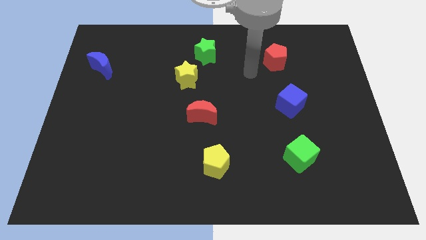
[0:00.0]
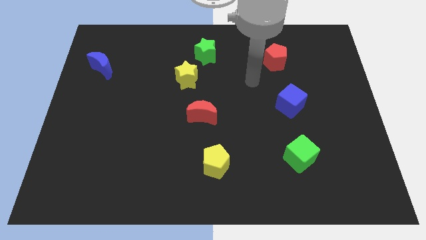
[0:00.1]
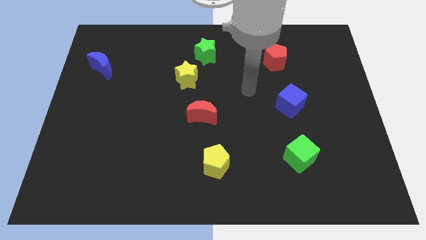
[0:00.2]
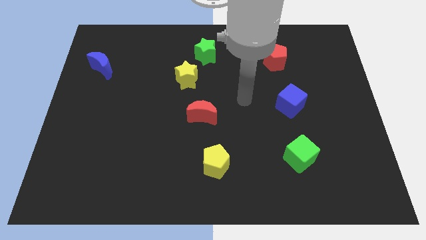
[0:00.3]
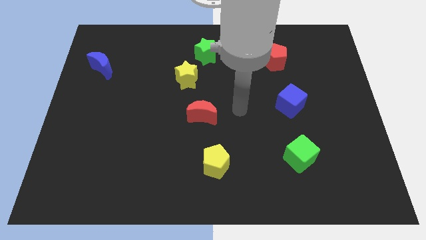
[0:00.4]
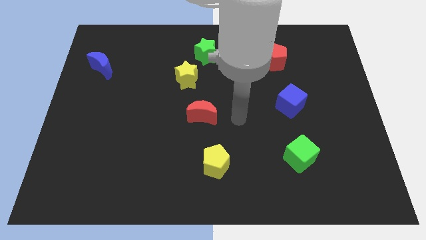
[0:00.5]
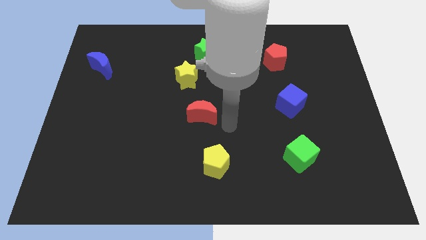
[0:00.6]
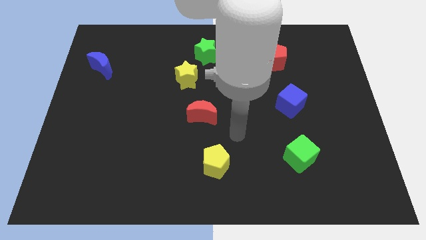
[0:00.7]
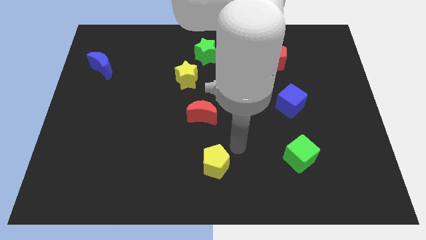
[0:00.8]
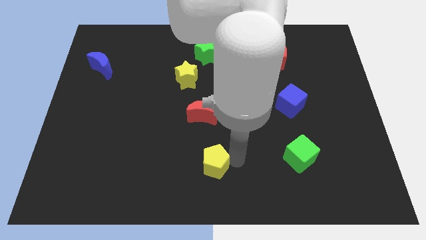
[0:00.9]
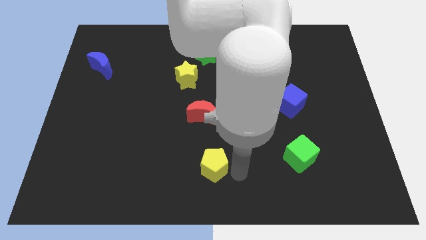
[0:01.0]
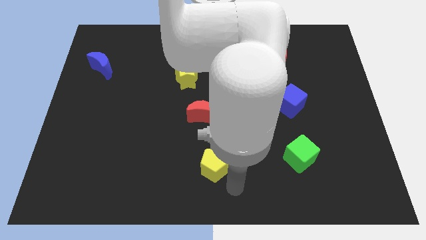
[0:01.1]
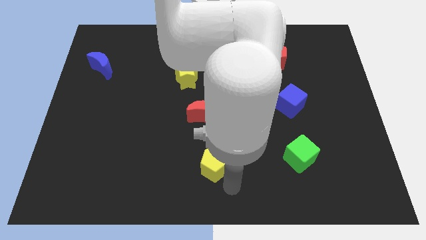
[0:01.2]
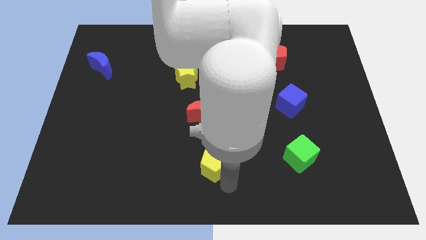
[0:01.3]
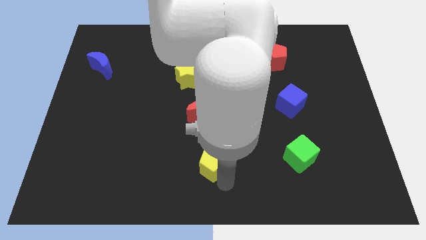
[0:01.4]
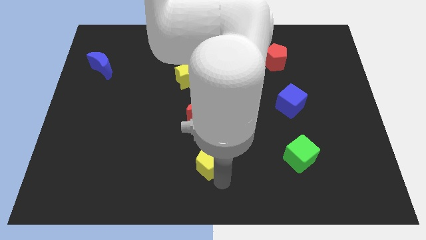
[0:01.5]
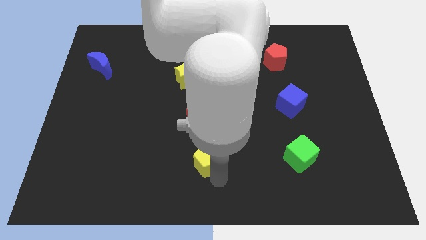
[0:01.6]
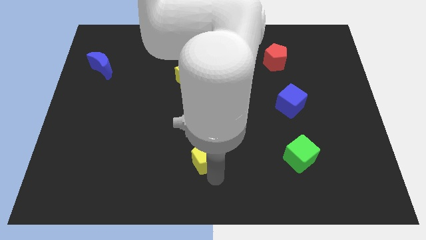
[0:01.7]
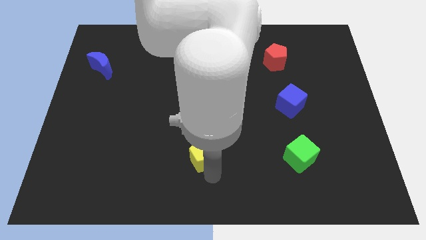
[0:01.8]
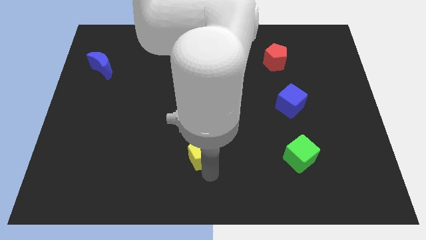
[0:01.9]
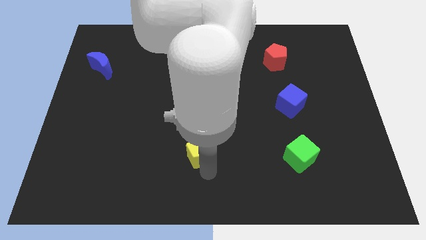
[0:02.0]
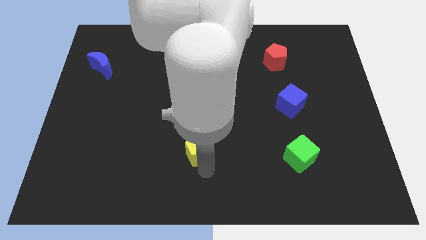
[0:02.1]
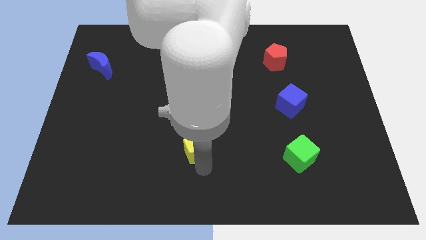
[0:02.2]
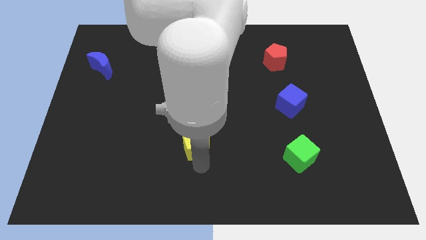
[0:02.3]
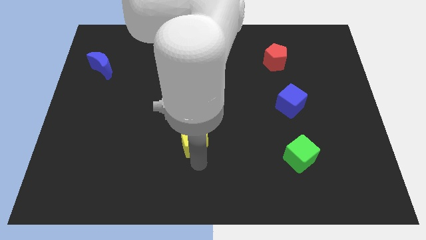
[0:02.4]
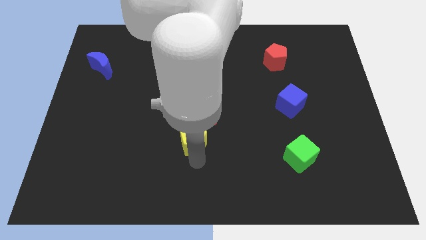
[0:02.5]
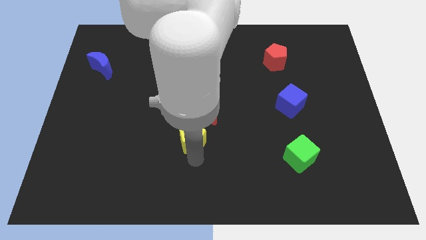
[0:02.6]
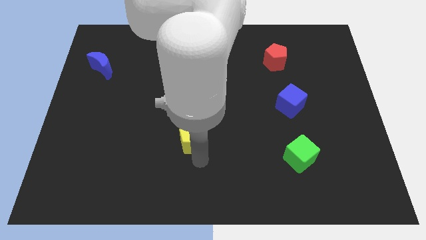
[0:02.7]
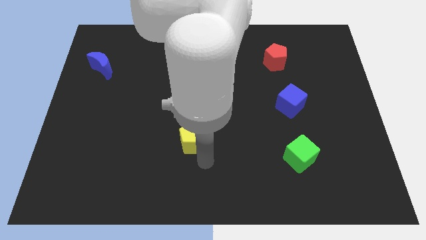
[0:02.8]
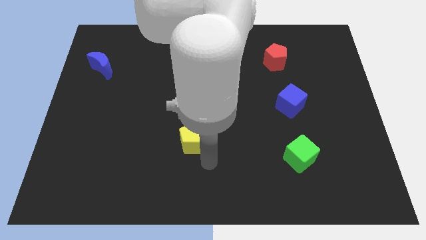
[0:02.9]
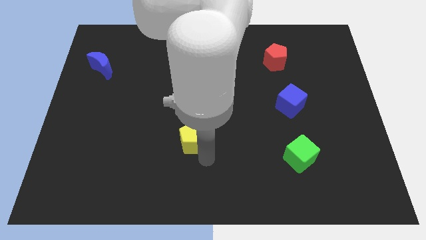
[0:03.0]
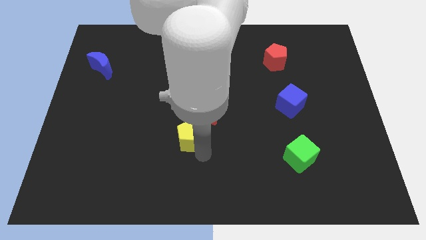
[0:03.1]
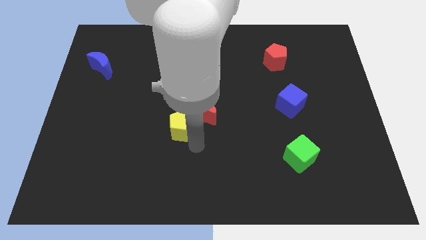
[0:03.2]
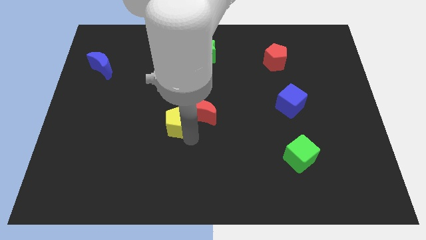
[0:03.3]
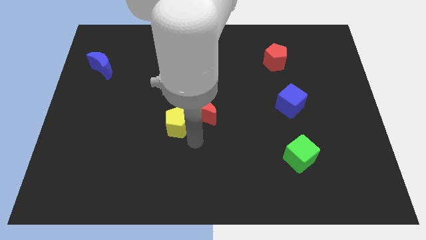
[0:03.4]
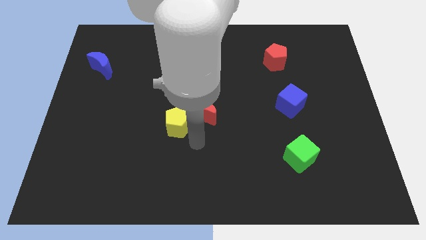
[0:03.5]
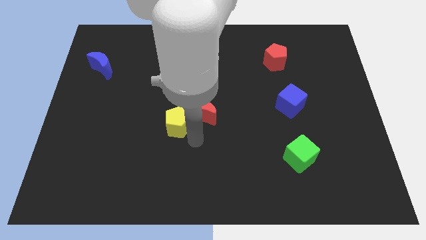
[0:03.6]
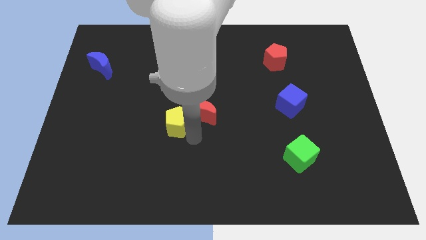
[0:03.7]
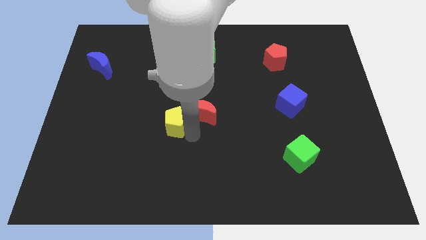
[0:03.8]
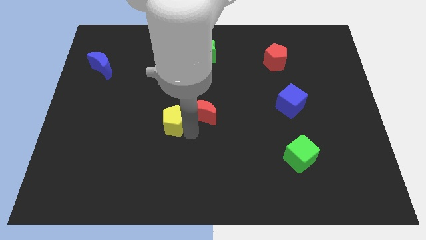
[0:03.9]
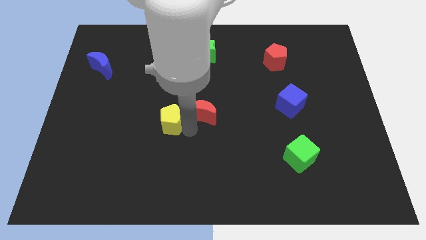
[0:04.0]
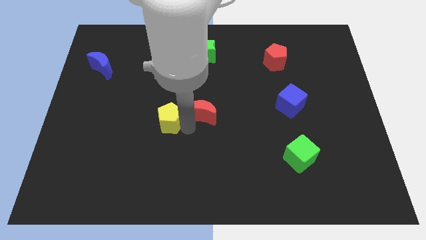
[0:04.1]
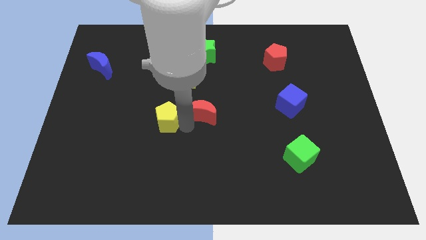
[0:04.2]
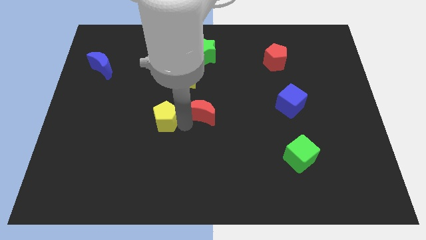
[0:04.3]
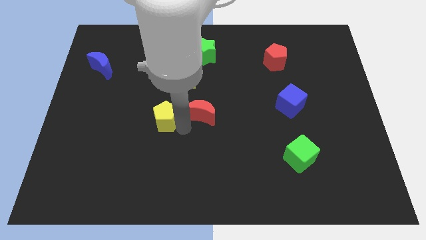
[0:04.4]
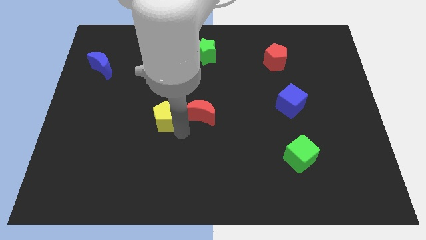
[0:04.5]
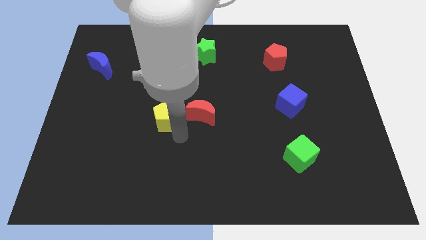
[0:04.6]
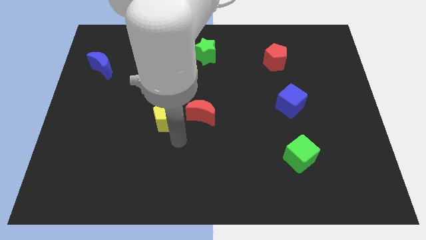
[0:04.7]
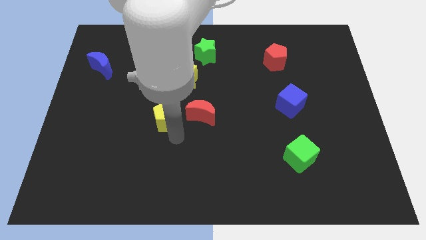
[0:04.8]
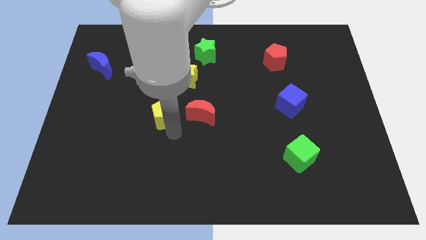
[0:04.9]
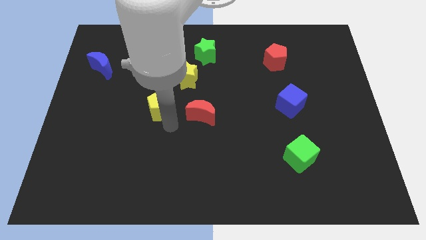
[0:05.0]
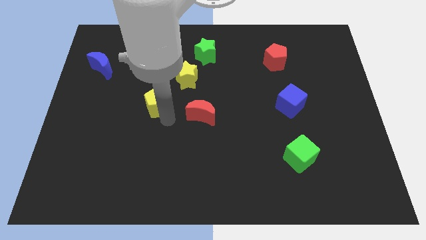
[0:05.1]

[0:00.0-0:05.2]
push the yellow pentagon up and then left

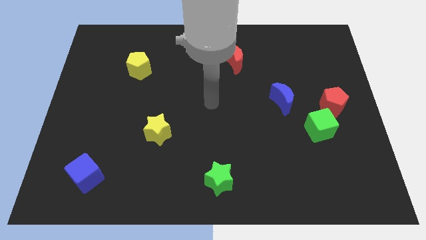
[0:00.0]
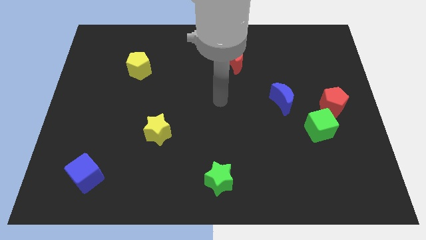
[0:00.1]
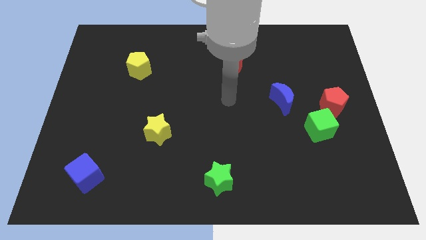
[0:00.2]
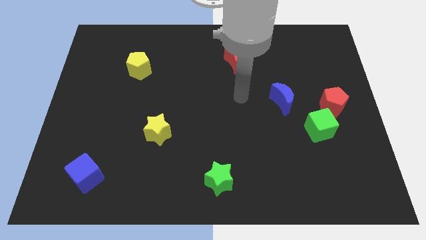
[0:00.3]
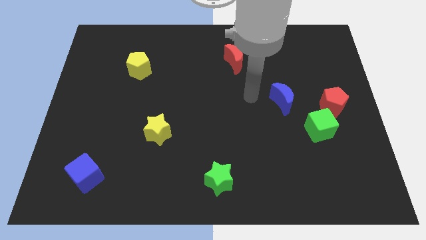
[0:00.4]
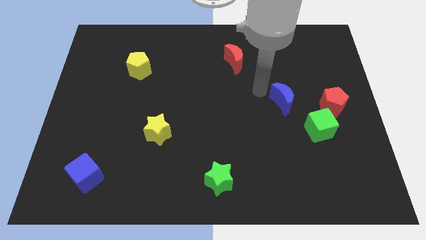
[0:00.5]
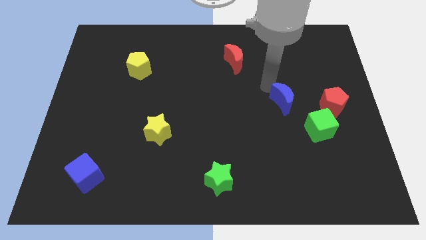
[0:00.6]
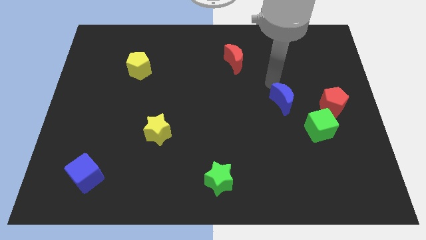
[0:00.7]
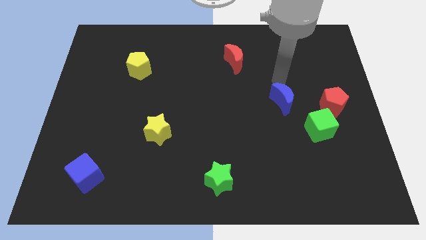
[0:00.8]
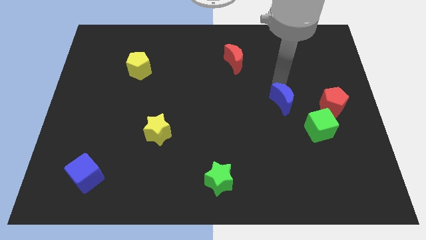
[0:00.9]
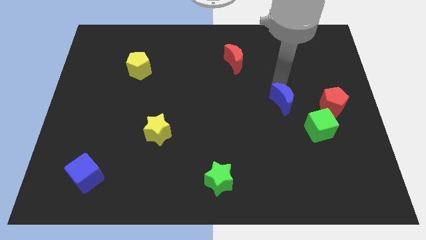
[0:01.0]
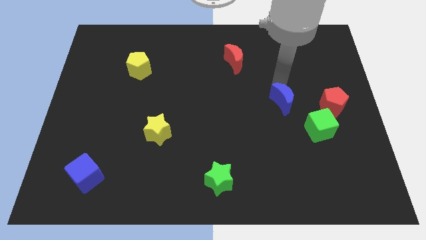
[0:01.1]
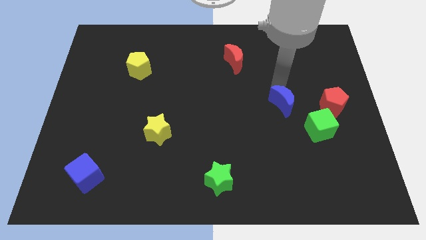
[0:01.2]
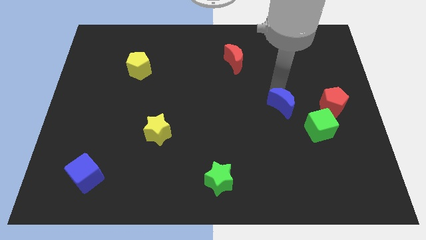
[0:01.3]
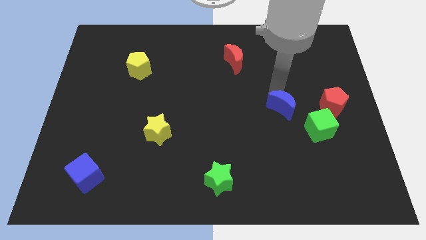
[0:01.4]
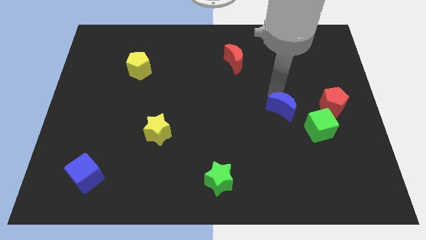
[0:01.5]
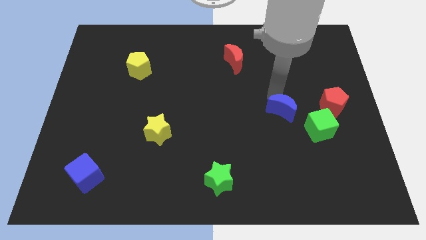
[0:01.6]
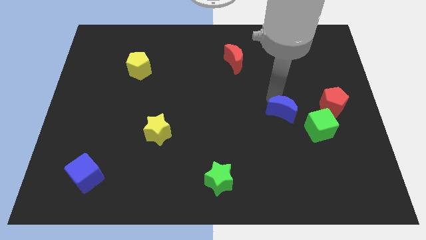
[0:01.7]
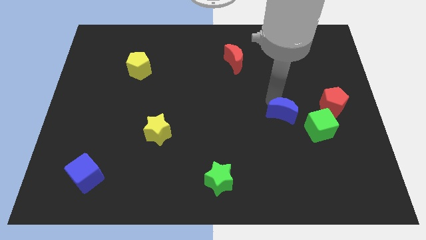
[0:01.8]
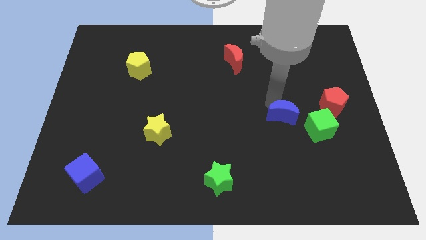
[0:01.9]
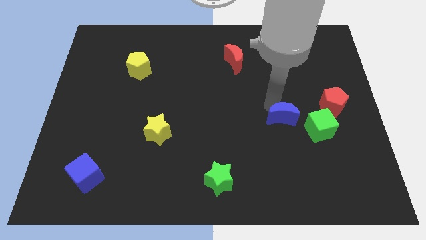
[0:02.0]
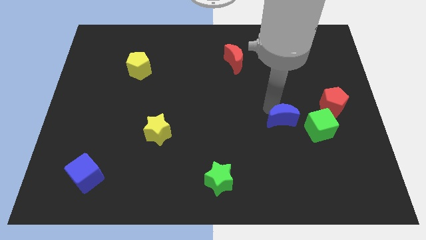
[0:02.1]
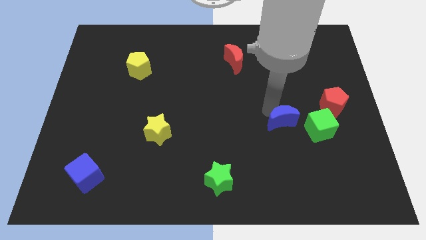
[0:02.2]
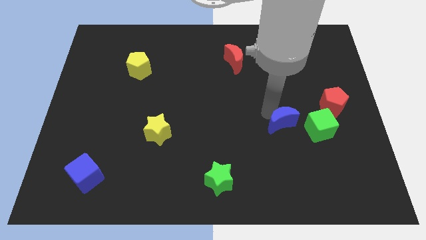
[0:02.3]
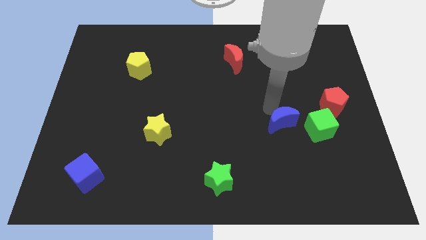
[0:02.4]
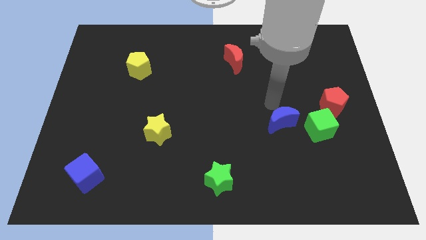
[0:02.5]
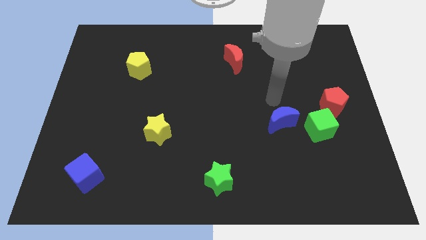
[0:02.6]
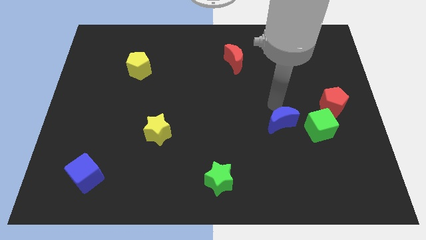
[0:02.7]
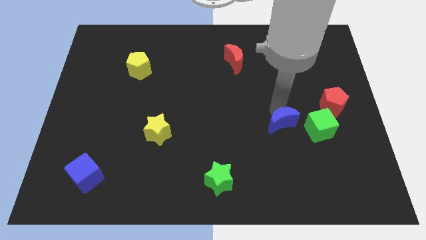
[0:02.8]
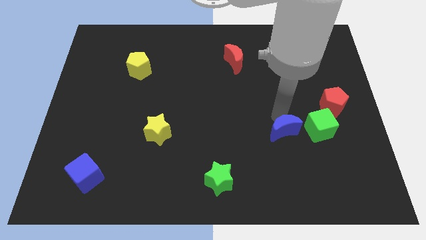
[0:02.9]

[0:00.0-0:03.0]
move the blue moon downwards somewhat

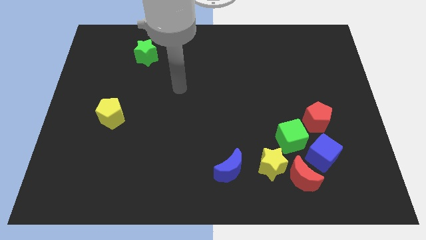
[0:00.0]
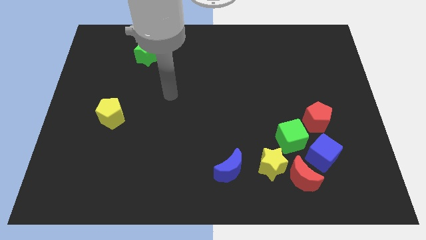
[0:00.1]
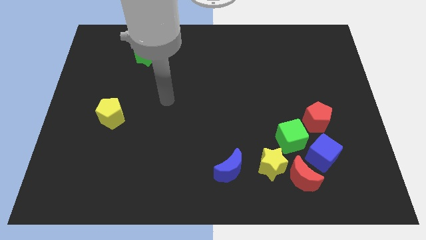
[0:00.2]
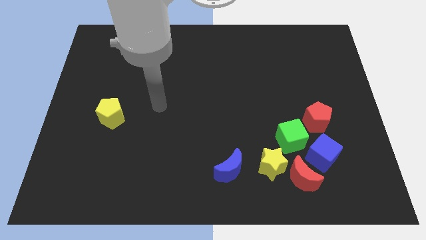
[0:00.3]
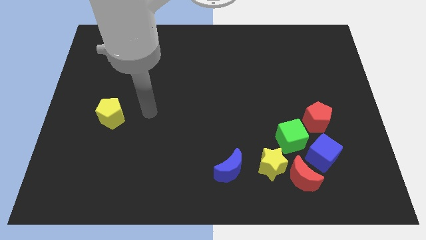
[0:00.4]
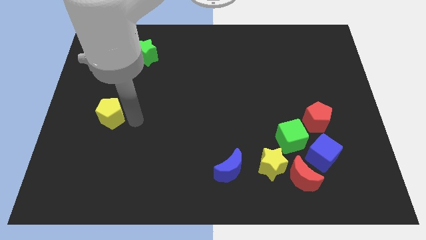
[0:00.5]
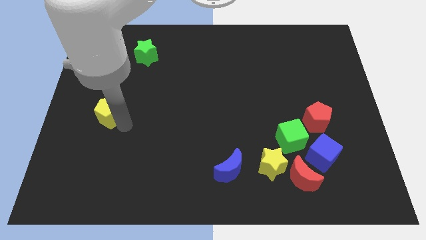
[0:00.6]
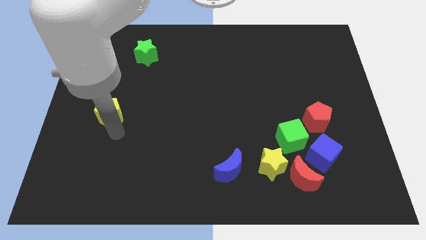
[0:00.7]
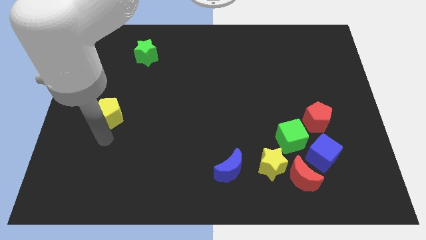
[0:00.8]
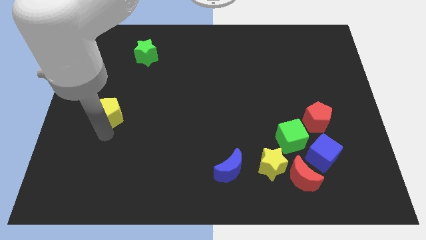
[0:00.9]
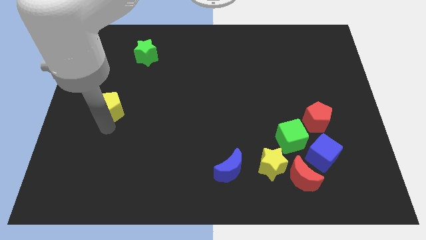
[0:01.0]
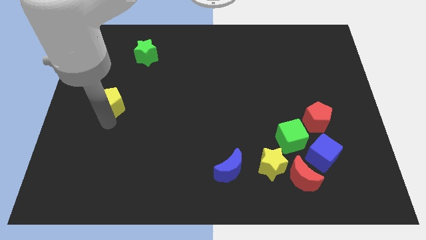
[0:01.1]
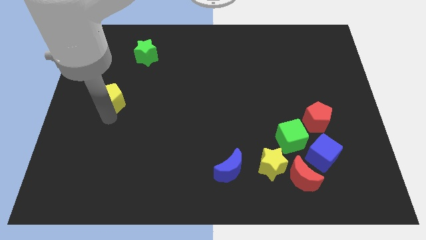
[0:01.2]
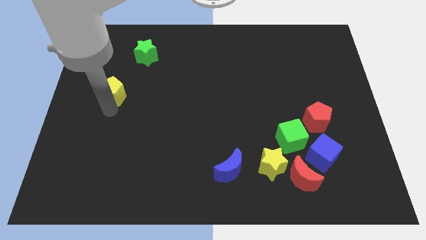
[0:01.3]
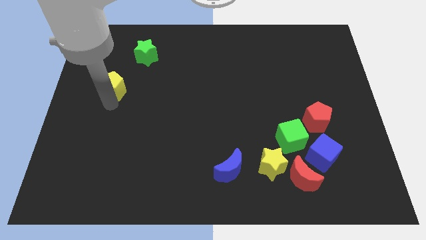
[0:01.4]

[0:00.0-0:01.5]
push the yellow pentagon a little bit upwards
